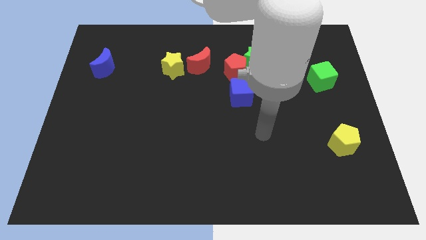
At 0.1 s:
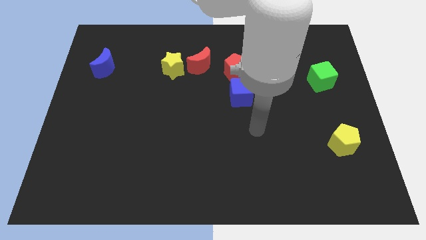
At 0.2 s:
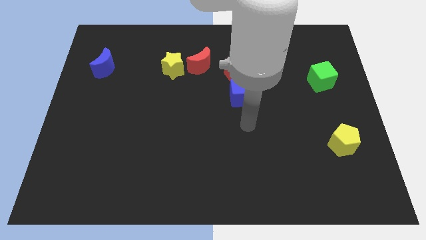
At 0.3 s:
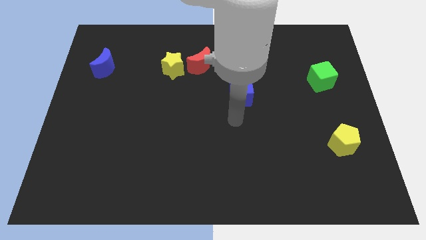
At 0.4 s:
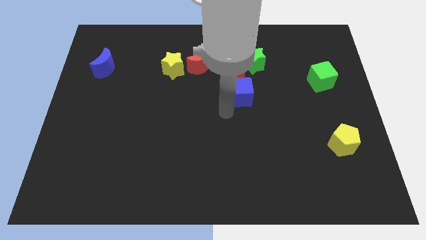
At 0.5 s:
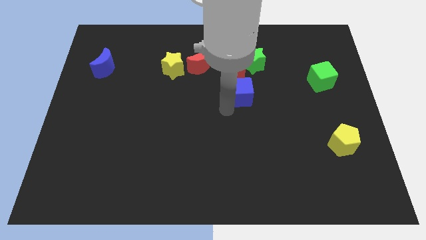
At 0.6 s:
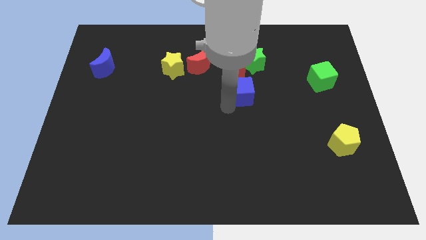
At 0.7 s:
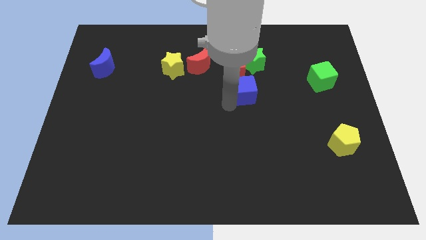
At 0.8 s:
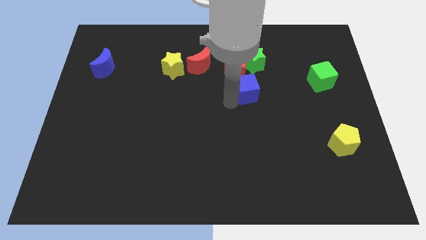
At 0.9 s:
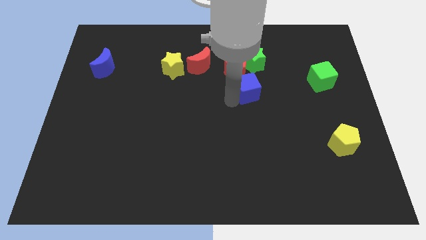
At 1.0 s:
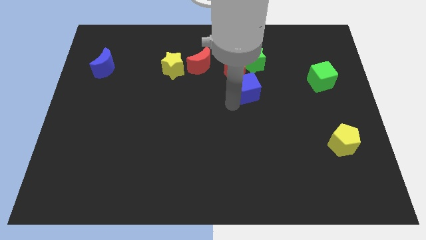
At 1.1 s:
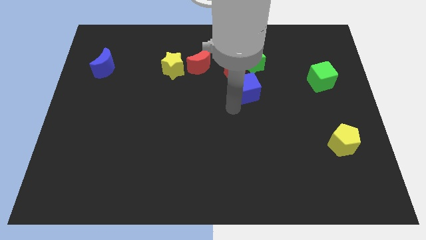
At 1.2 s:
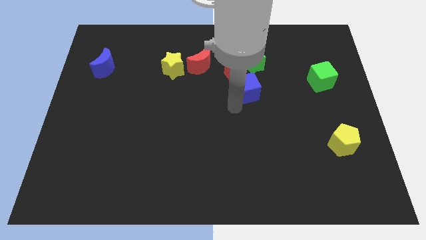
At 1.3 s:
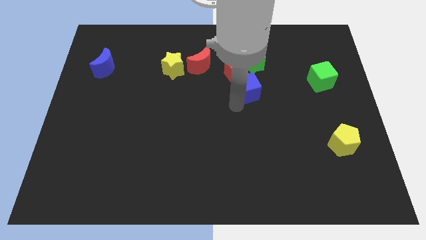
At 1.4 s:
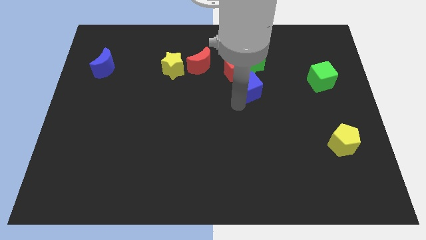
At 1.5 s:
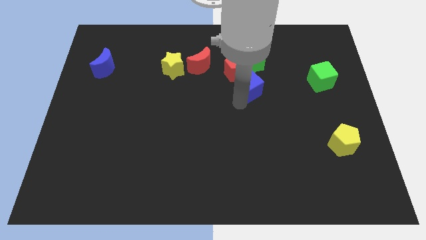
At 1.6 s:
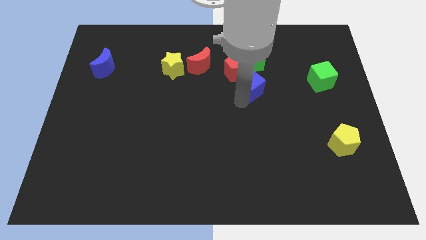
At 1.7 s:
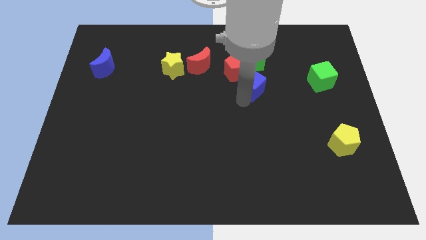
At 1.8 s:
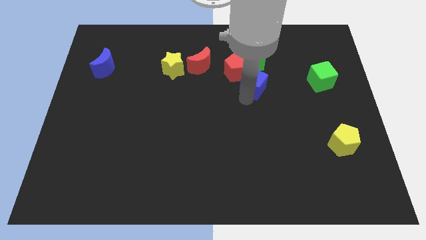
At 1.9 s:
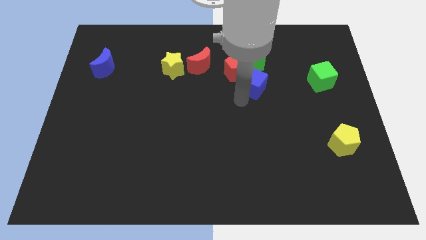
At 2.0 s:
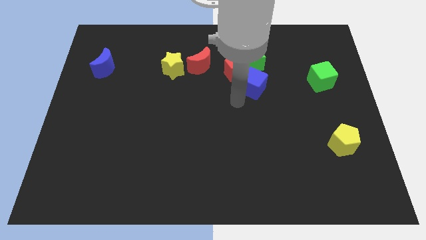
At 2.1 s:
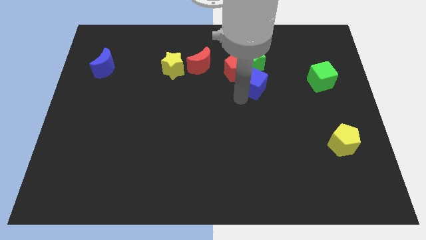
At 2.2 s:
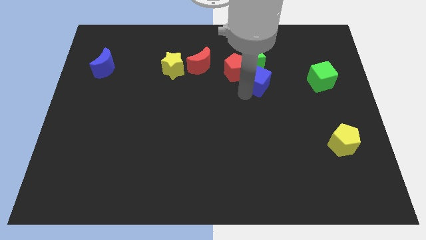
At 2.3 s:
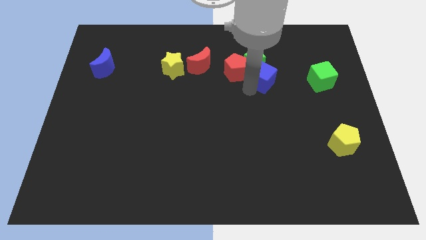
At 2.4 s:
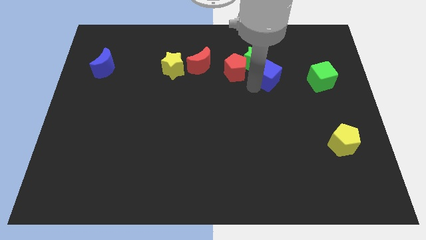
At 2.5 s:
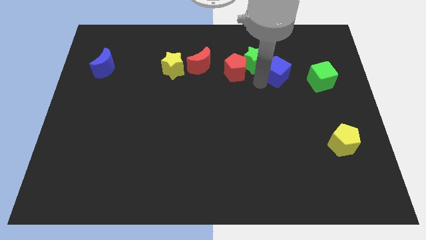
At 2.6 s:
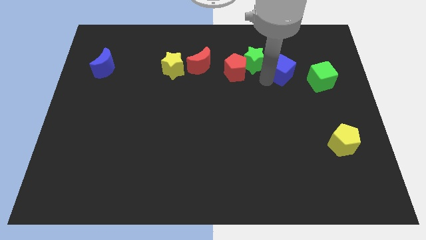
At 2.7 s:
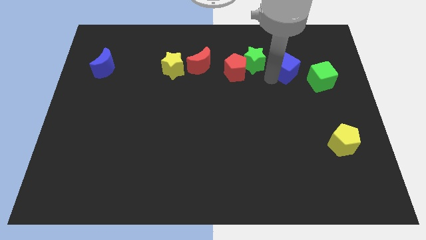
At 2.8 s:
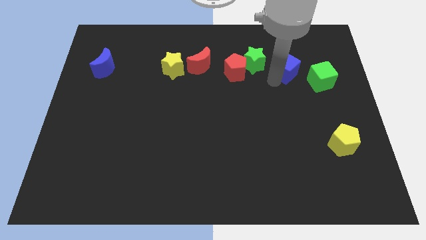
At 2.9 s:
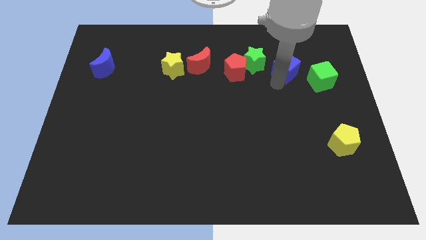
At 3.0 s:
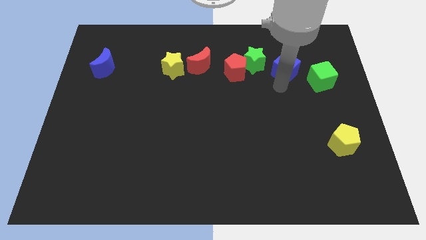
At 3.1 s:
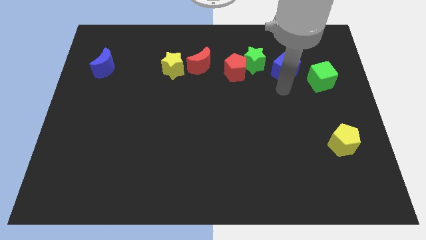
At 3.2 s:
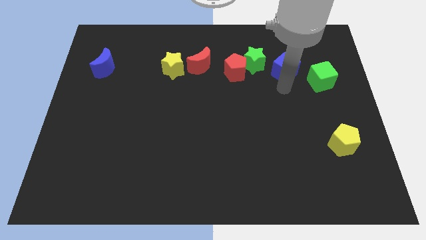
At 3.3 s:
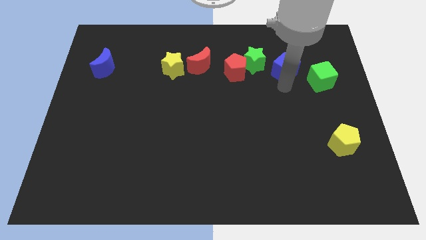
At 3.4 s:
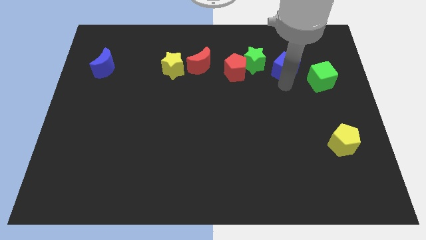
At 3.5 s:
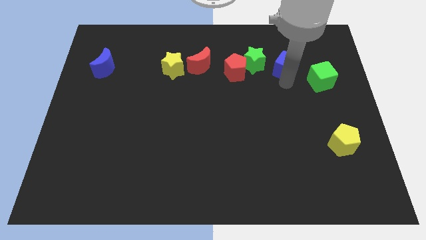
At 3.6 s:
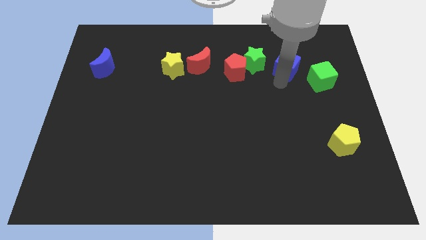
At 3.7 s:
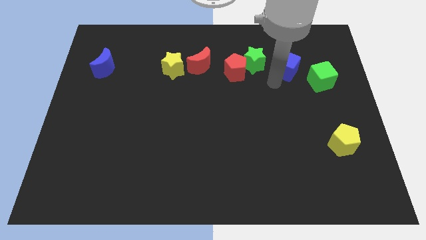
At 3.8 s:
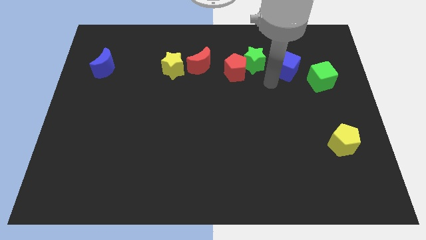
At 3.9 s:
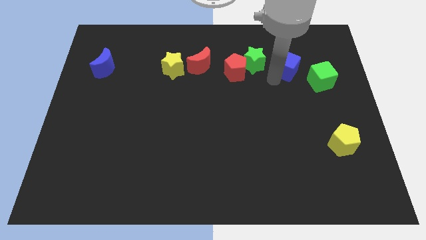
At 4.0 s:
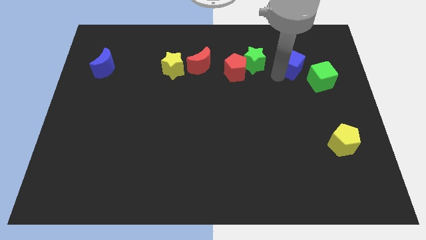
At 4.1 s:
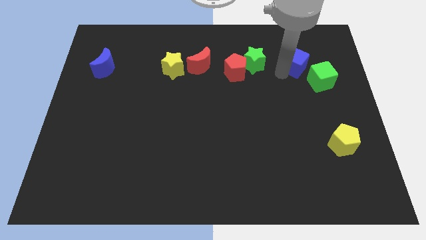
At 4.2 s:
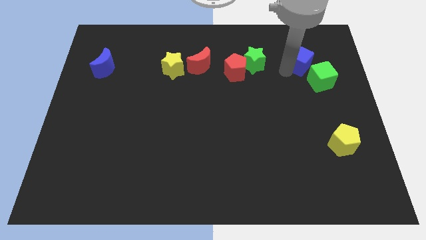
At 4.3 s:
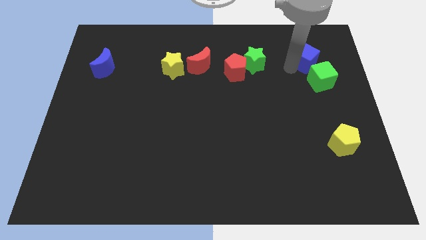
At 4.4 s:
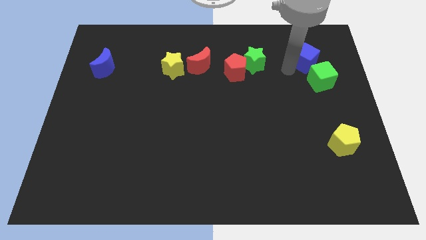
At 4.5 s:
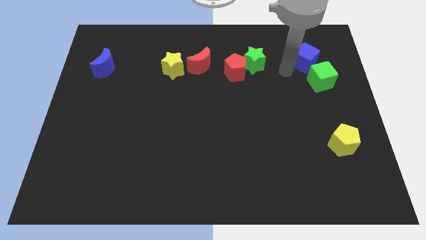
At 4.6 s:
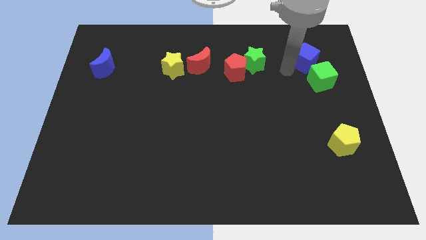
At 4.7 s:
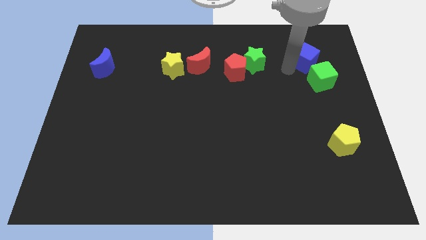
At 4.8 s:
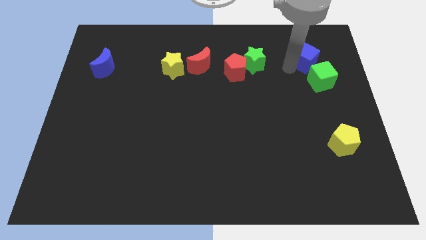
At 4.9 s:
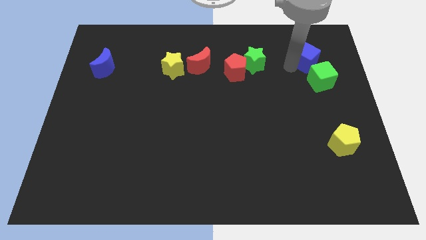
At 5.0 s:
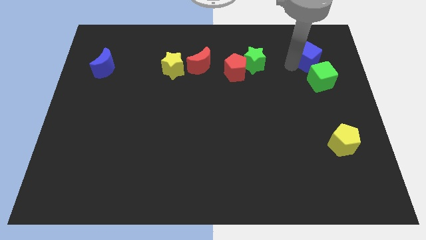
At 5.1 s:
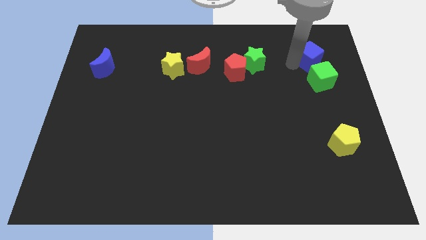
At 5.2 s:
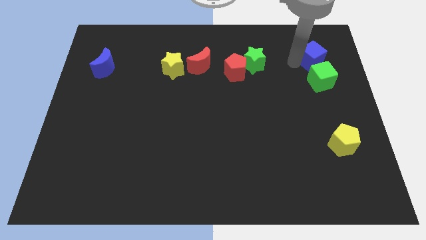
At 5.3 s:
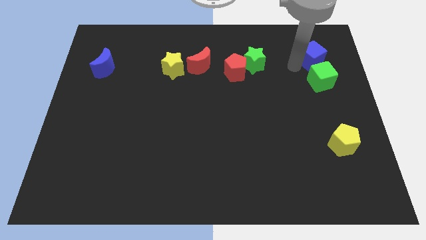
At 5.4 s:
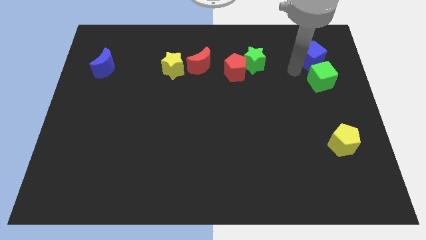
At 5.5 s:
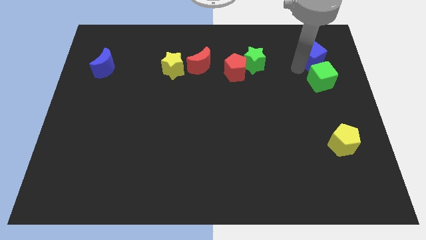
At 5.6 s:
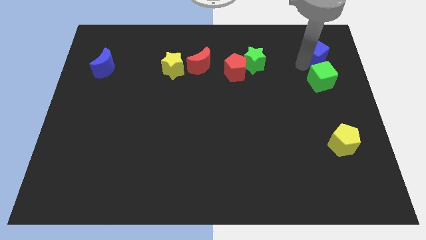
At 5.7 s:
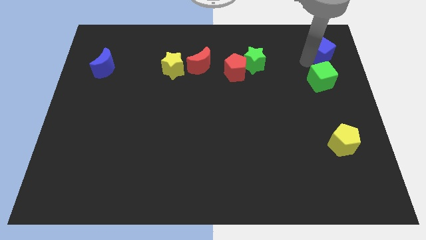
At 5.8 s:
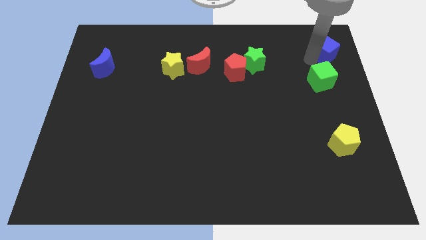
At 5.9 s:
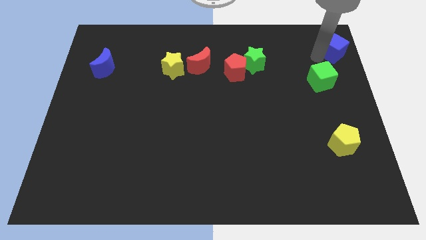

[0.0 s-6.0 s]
move the blue cube to the top right corner

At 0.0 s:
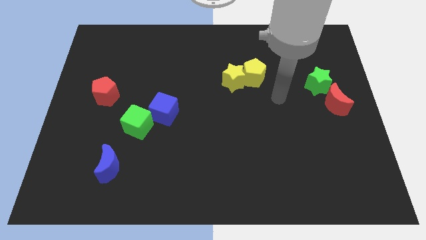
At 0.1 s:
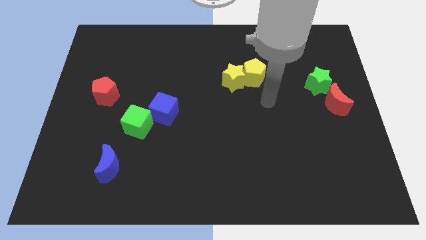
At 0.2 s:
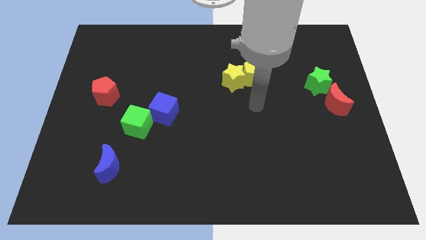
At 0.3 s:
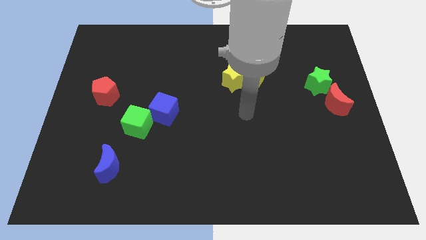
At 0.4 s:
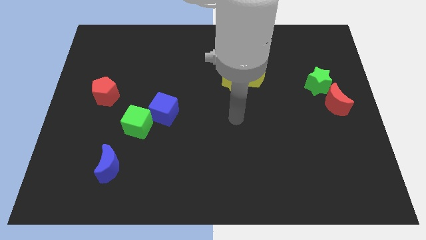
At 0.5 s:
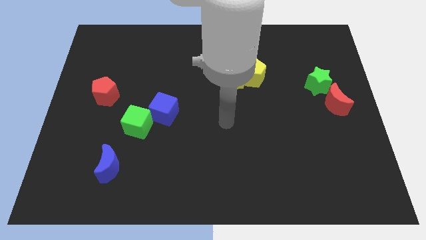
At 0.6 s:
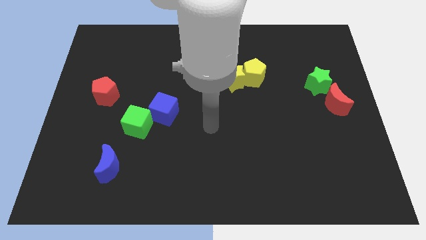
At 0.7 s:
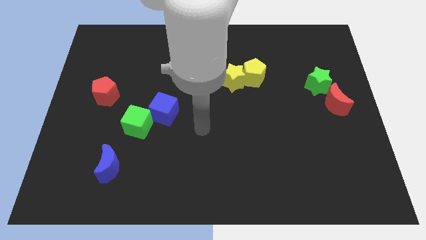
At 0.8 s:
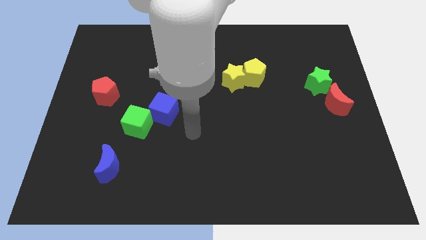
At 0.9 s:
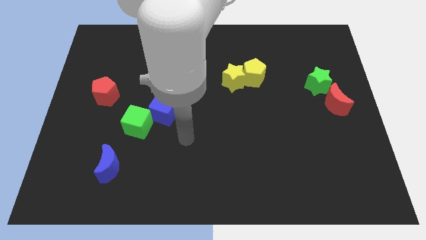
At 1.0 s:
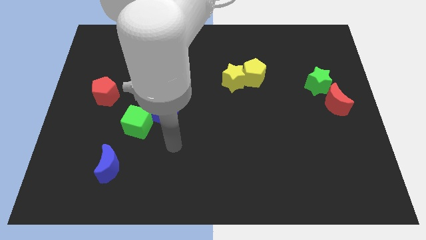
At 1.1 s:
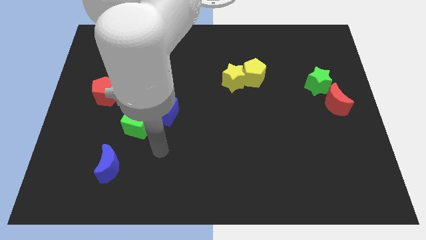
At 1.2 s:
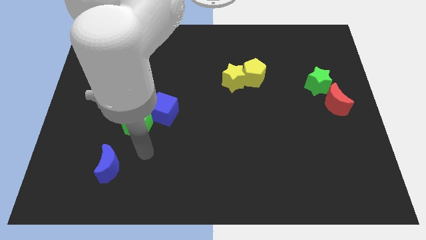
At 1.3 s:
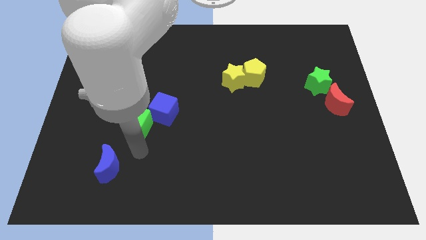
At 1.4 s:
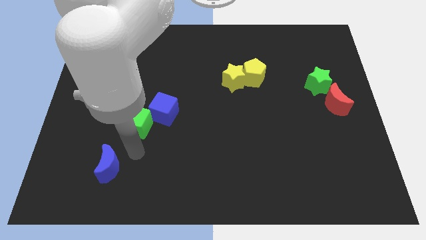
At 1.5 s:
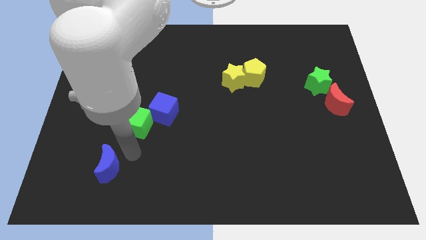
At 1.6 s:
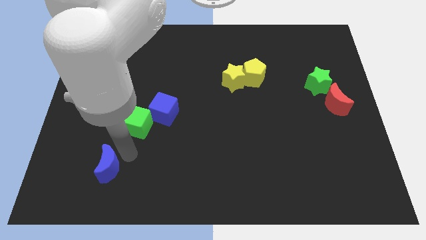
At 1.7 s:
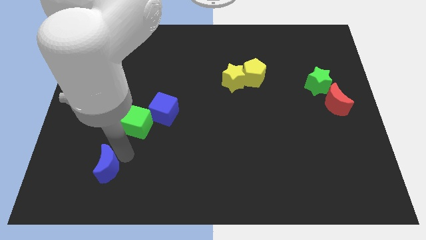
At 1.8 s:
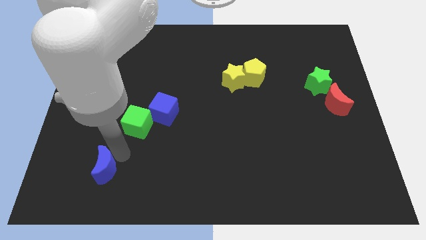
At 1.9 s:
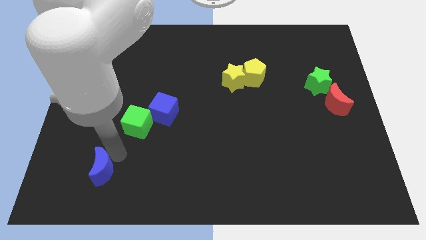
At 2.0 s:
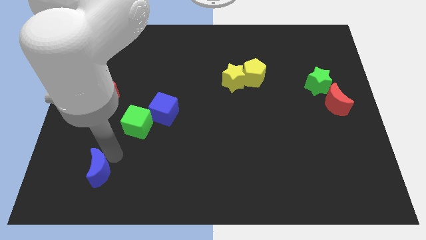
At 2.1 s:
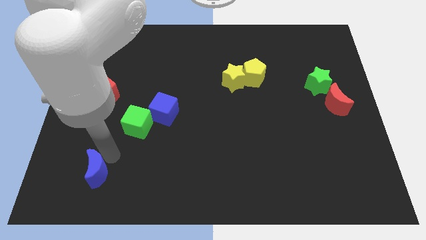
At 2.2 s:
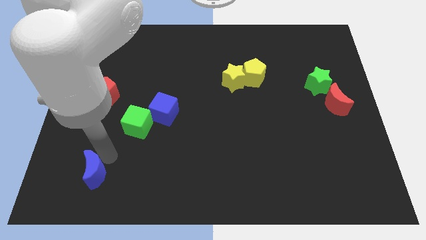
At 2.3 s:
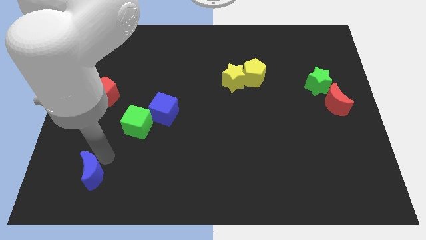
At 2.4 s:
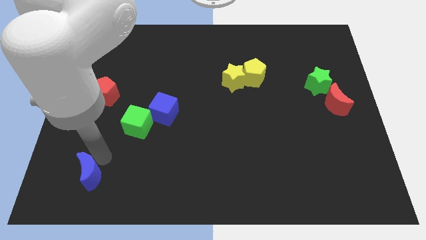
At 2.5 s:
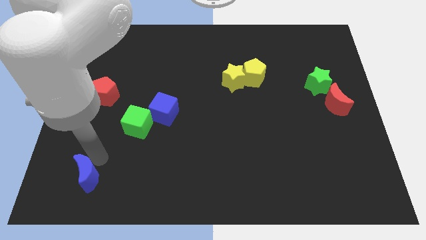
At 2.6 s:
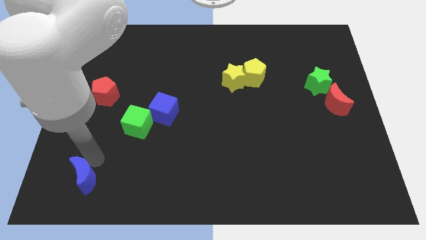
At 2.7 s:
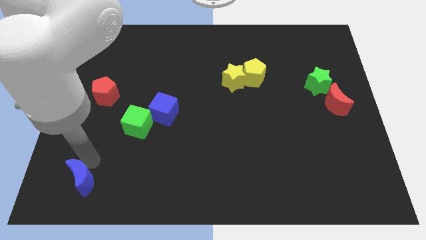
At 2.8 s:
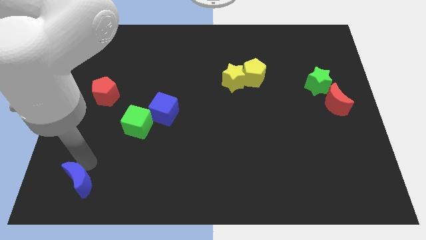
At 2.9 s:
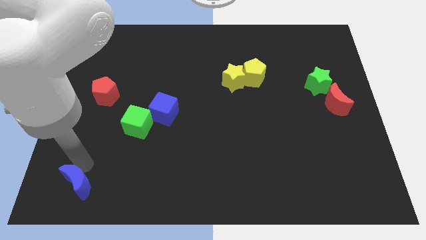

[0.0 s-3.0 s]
slide the blue moon to the bottom left
